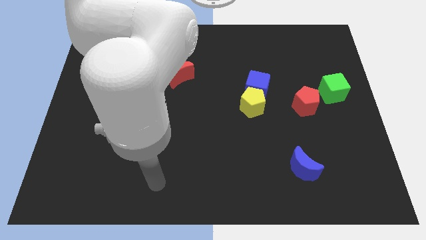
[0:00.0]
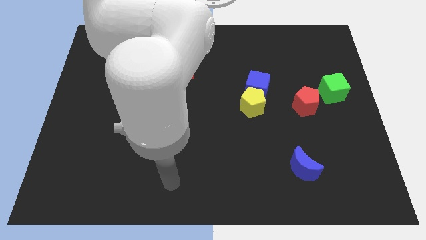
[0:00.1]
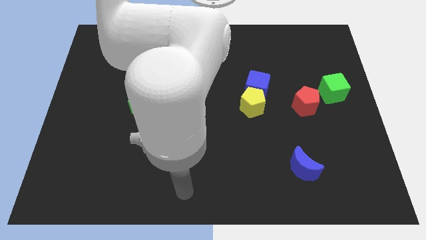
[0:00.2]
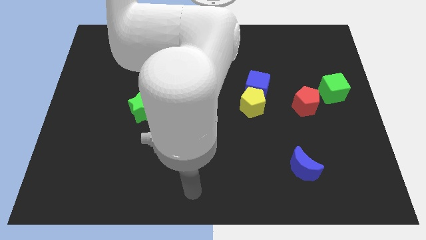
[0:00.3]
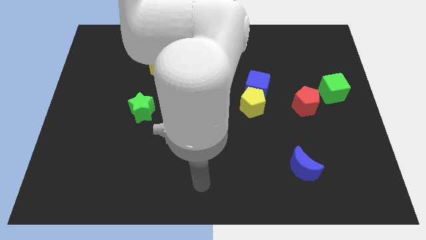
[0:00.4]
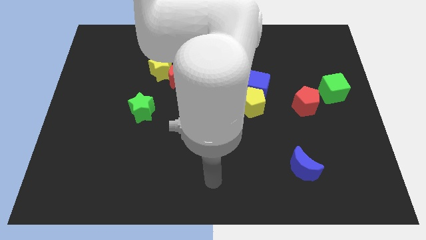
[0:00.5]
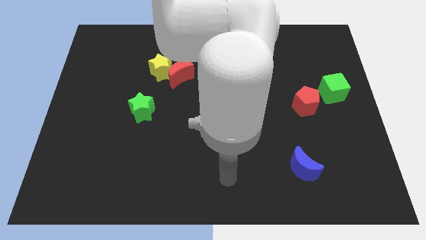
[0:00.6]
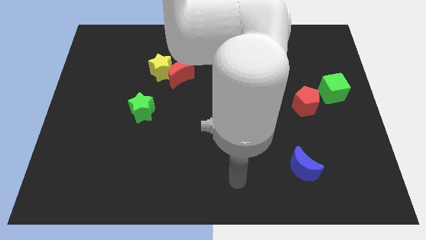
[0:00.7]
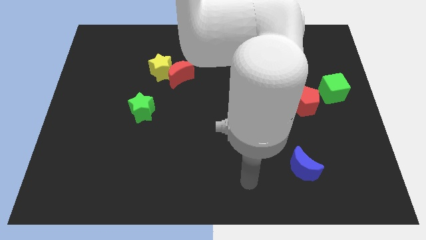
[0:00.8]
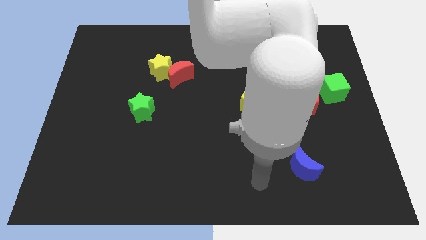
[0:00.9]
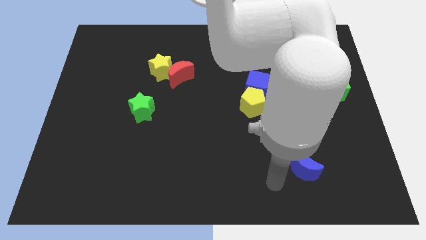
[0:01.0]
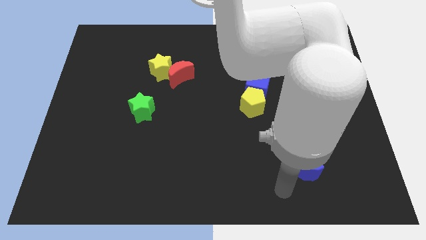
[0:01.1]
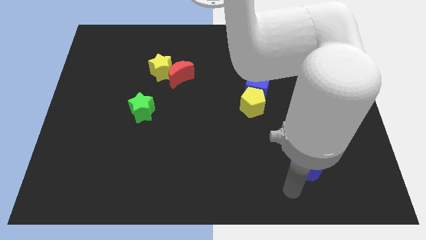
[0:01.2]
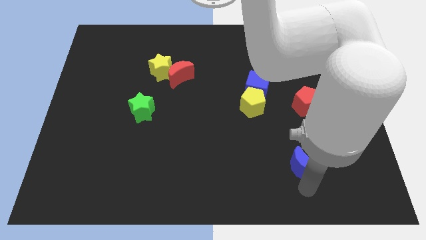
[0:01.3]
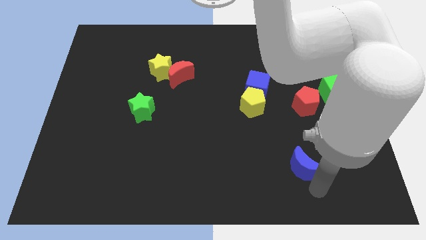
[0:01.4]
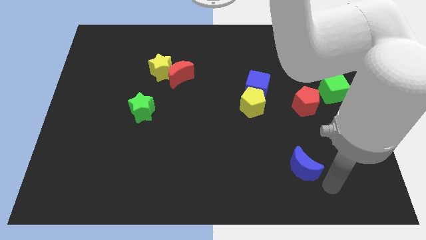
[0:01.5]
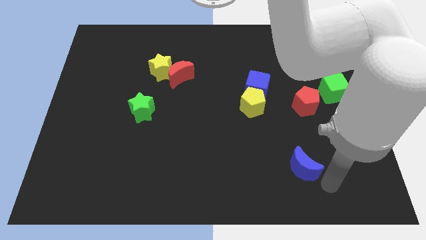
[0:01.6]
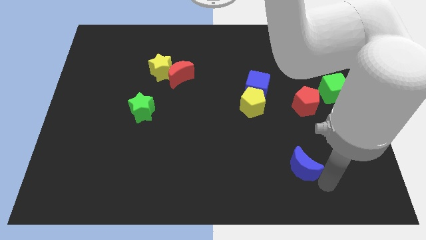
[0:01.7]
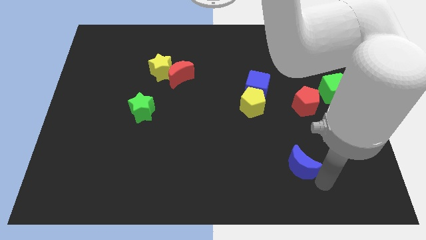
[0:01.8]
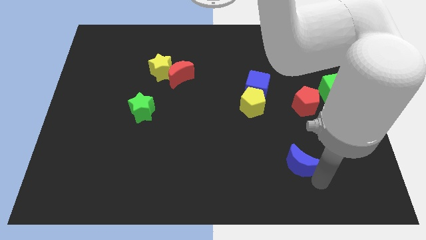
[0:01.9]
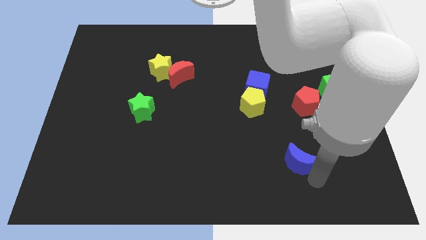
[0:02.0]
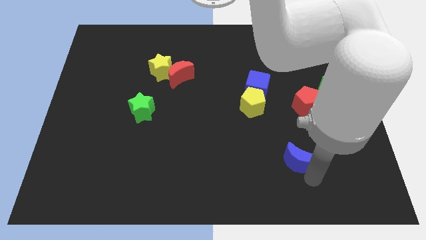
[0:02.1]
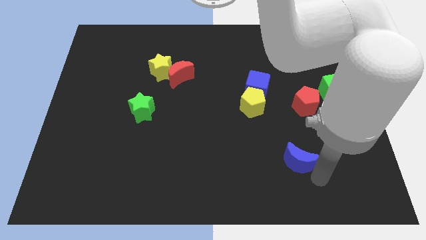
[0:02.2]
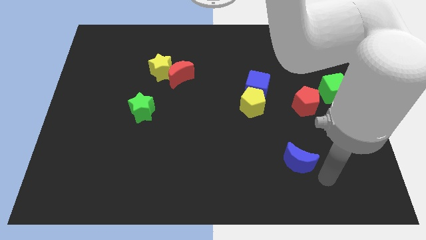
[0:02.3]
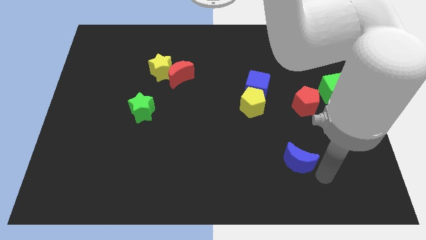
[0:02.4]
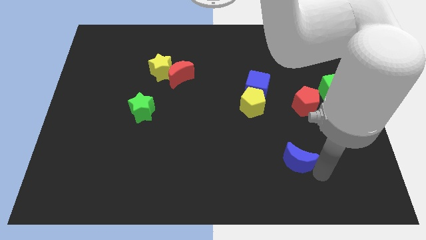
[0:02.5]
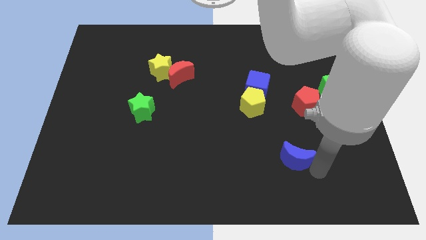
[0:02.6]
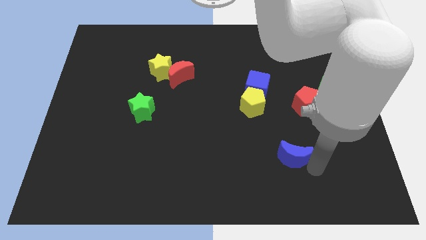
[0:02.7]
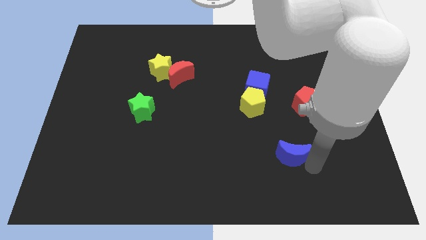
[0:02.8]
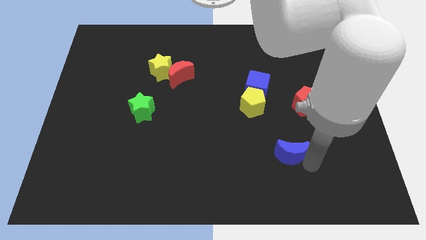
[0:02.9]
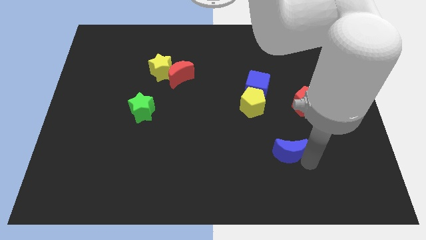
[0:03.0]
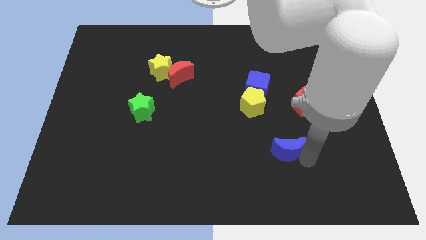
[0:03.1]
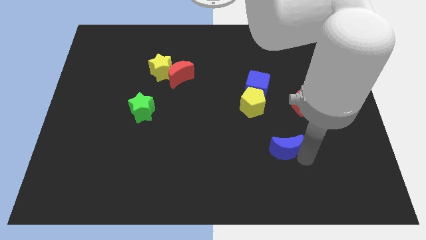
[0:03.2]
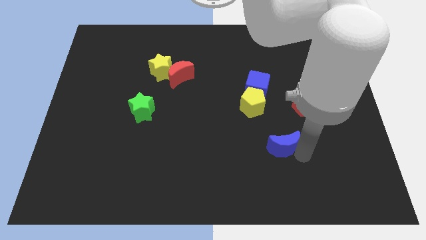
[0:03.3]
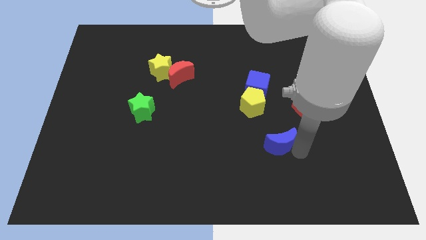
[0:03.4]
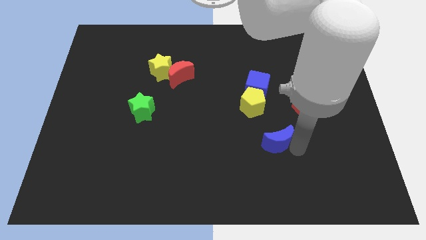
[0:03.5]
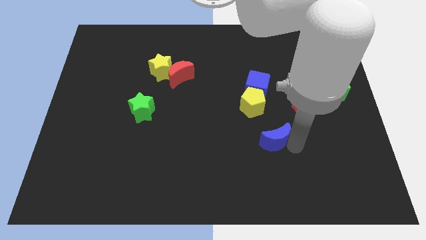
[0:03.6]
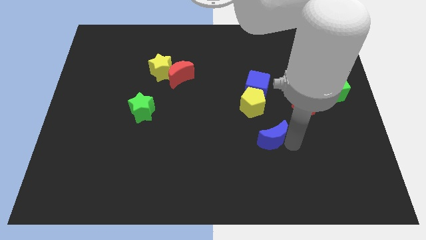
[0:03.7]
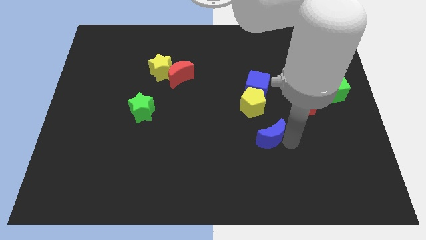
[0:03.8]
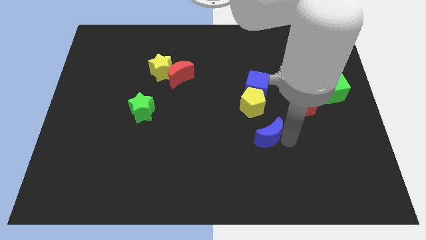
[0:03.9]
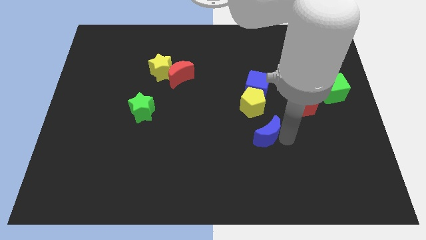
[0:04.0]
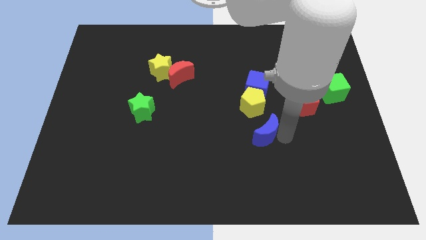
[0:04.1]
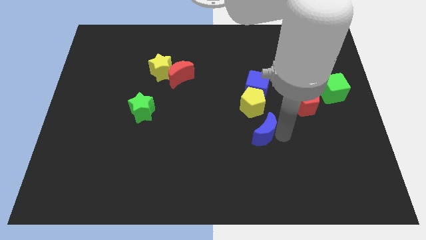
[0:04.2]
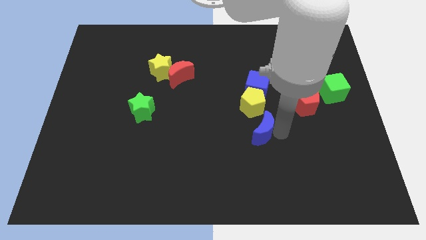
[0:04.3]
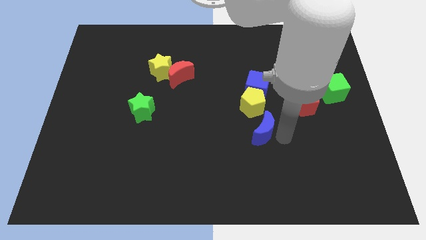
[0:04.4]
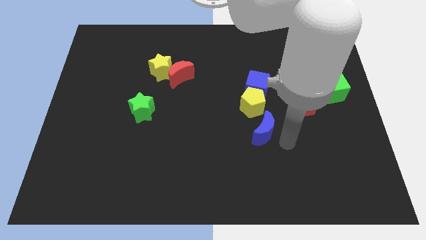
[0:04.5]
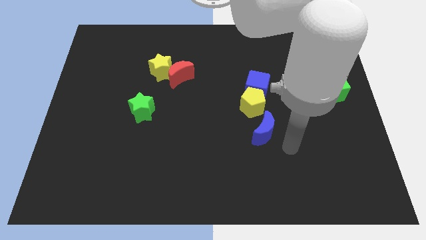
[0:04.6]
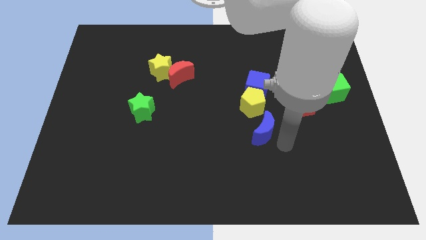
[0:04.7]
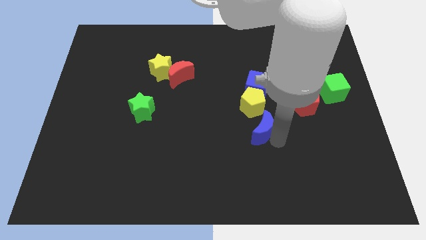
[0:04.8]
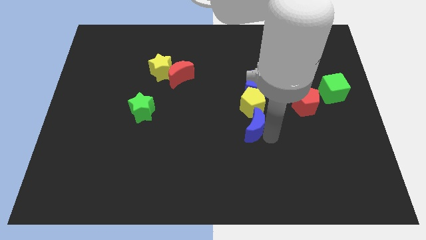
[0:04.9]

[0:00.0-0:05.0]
put the blue moon to the center of the board

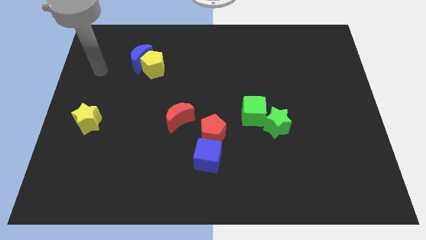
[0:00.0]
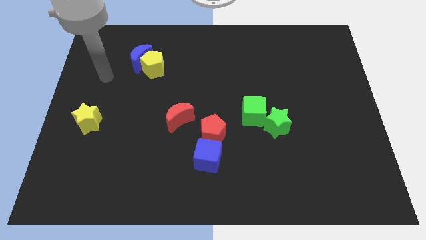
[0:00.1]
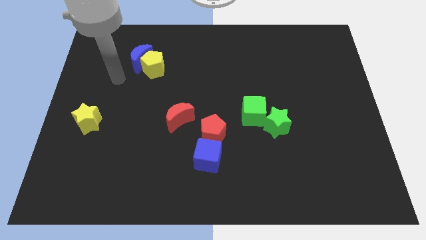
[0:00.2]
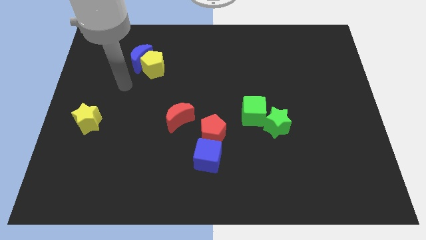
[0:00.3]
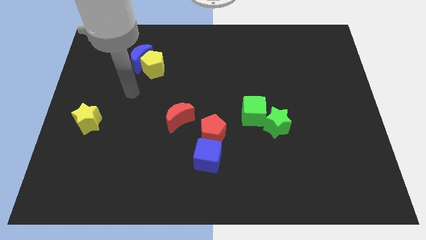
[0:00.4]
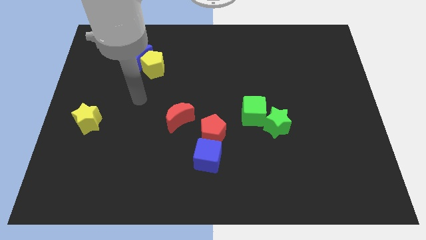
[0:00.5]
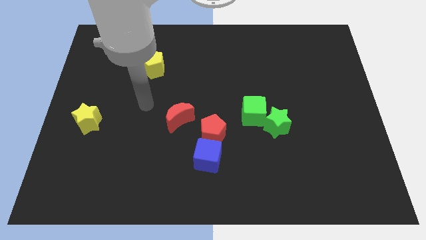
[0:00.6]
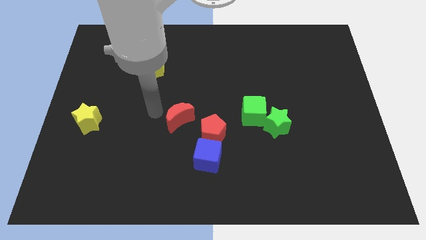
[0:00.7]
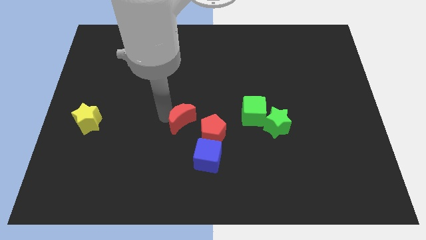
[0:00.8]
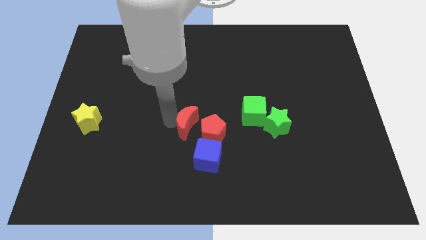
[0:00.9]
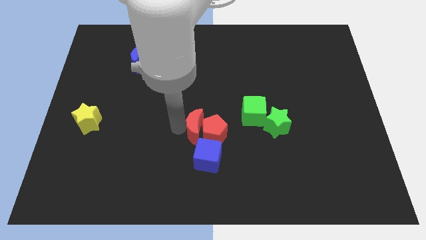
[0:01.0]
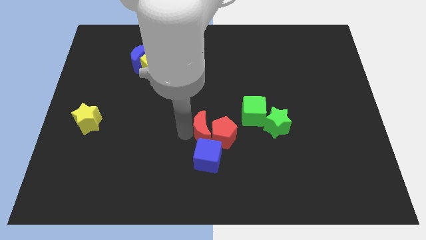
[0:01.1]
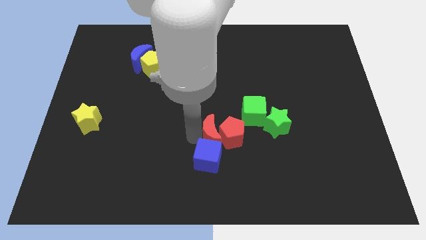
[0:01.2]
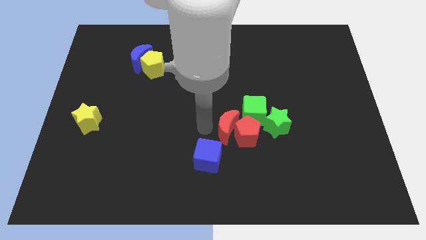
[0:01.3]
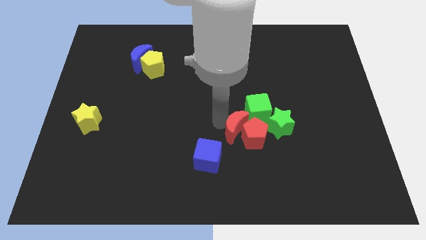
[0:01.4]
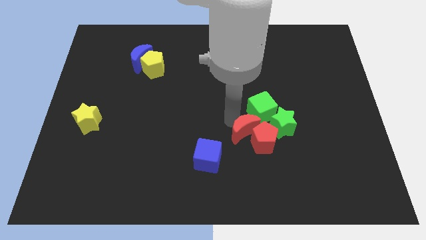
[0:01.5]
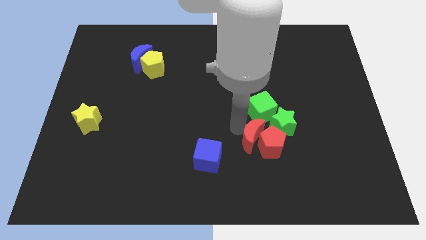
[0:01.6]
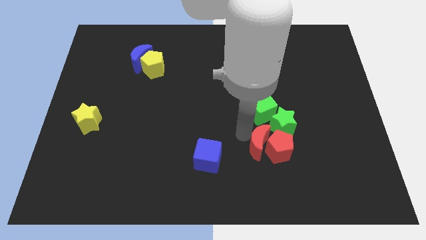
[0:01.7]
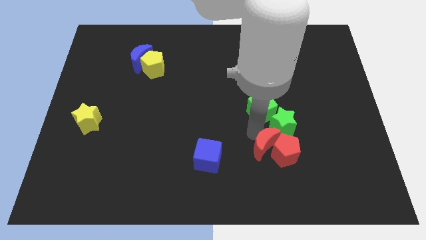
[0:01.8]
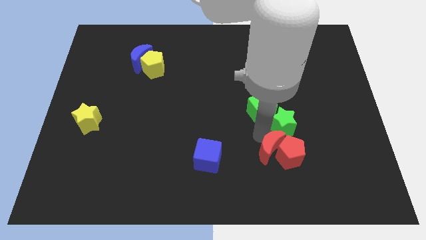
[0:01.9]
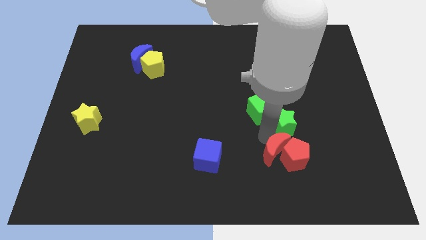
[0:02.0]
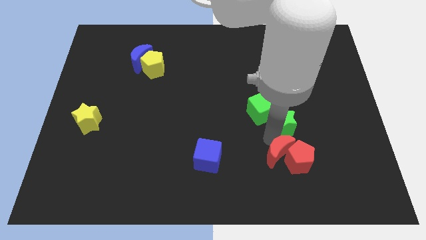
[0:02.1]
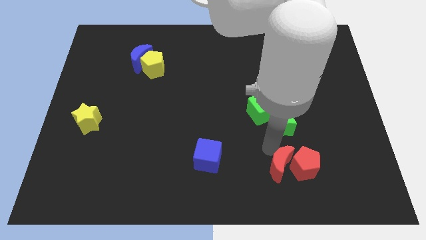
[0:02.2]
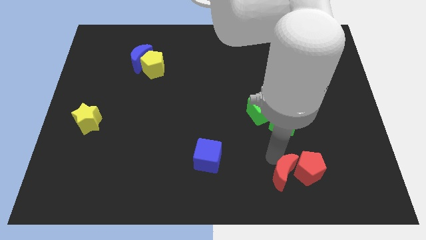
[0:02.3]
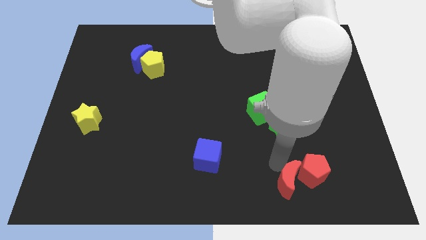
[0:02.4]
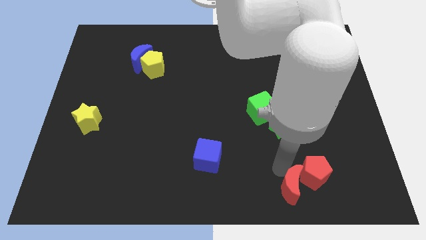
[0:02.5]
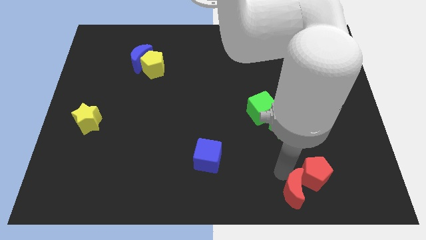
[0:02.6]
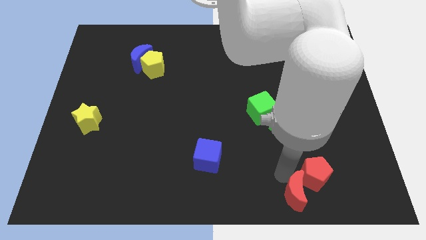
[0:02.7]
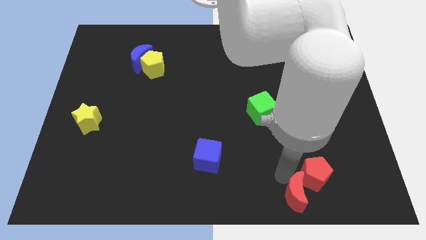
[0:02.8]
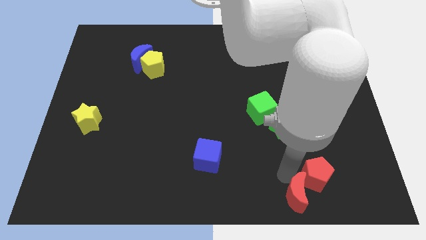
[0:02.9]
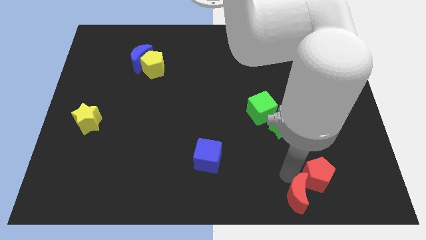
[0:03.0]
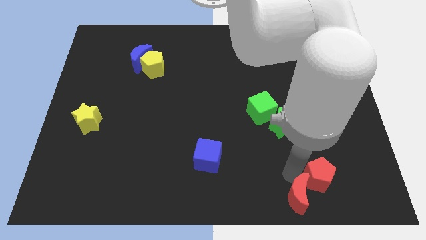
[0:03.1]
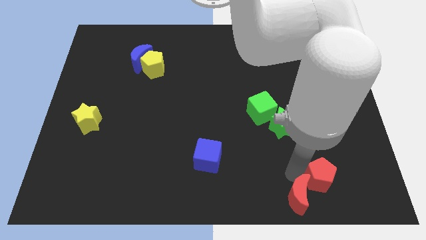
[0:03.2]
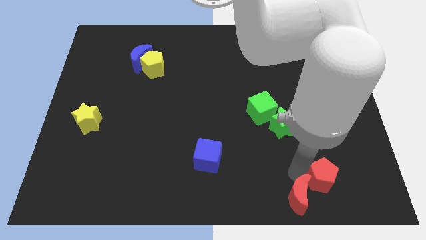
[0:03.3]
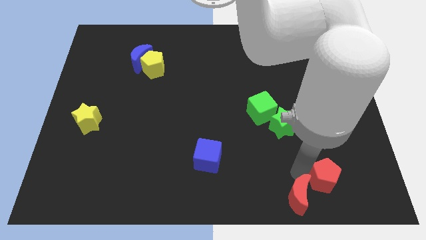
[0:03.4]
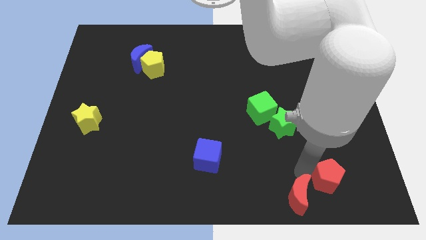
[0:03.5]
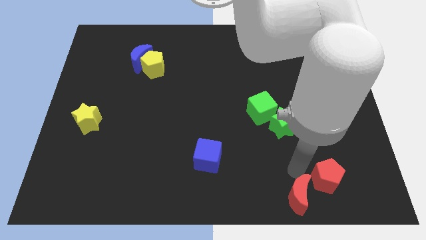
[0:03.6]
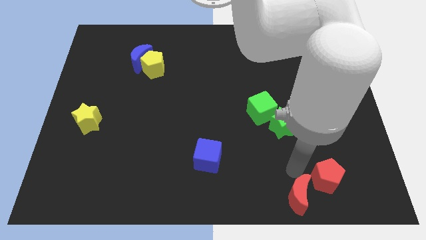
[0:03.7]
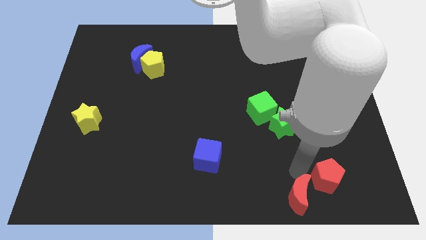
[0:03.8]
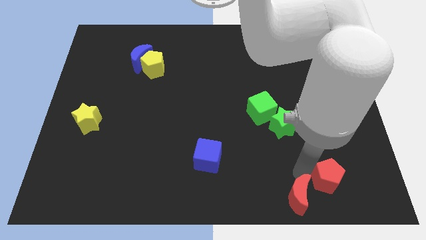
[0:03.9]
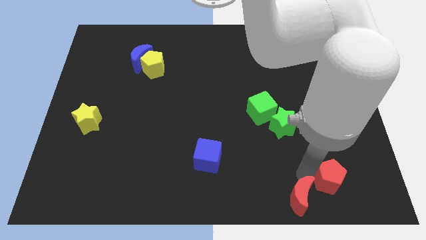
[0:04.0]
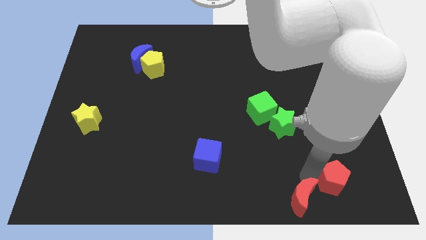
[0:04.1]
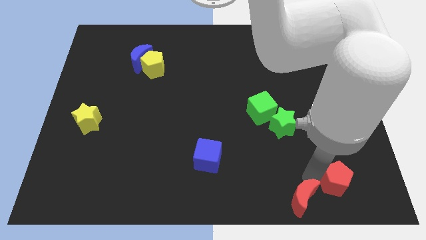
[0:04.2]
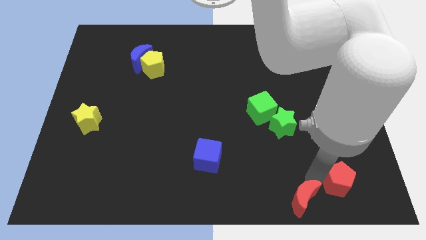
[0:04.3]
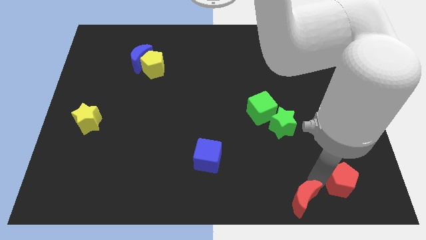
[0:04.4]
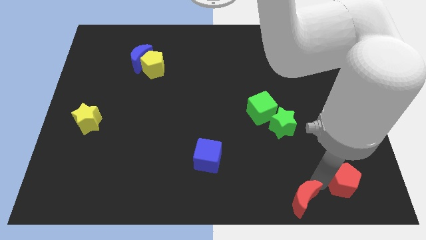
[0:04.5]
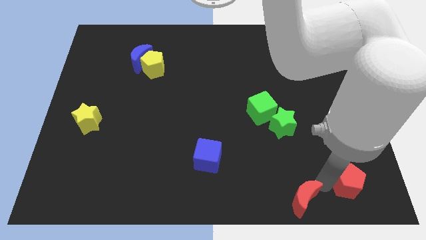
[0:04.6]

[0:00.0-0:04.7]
slide the red pentagon to the bottom right of the board
